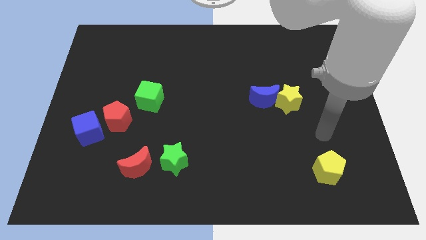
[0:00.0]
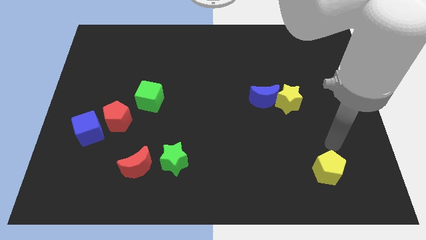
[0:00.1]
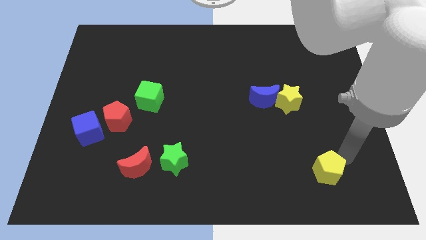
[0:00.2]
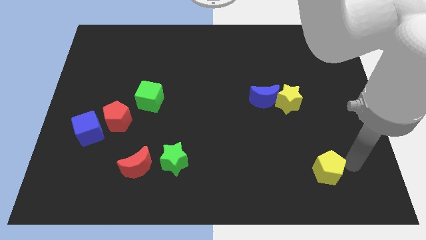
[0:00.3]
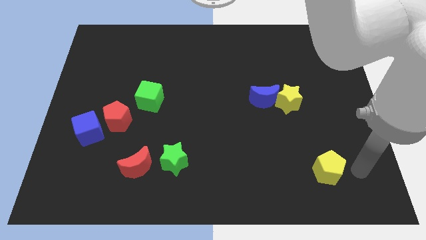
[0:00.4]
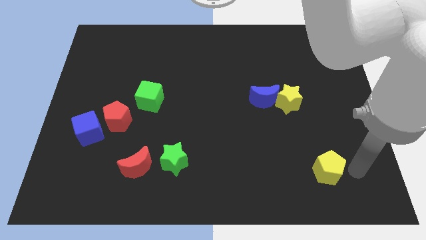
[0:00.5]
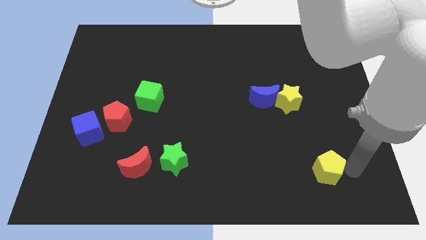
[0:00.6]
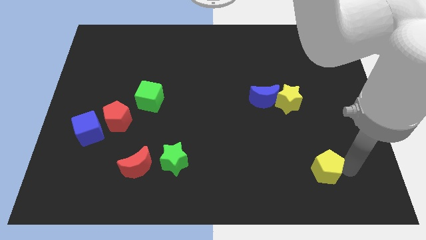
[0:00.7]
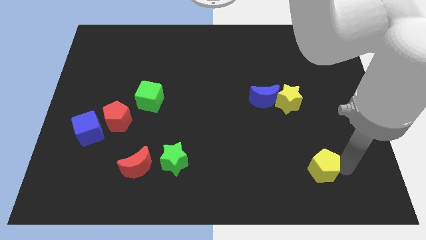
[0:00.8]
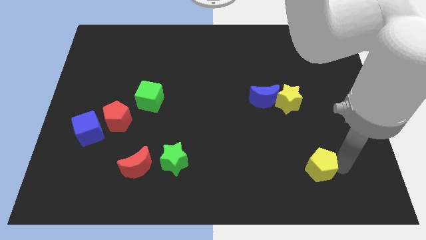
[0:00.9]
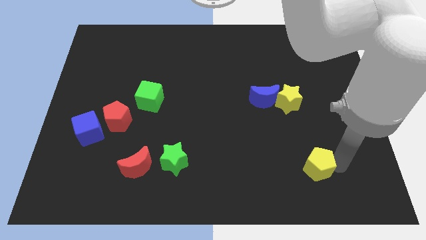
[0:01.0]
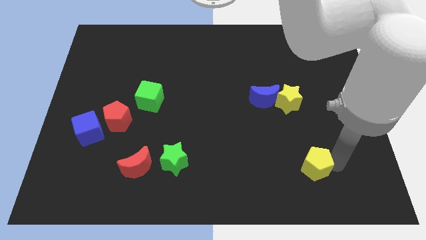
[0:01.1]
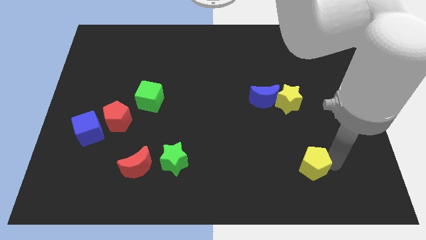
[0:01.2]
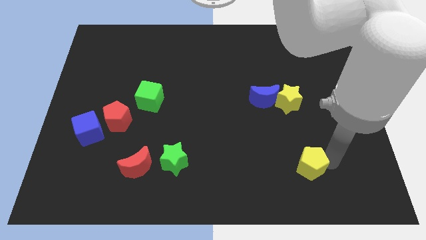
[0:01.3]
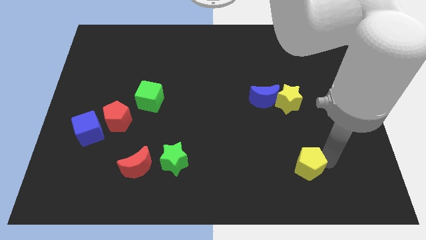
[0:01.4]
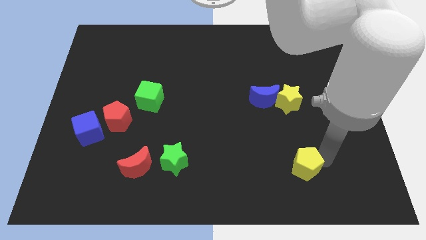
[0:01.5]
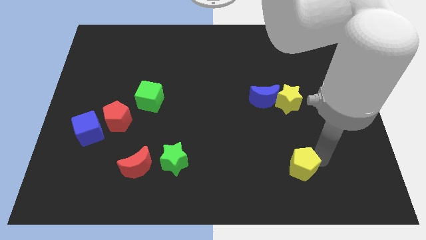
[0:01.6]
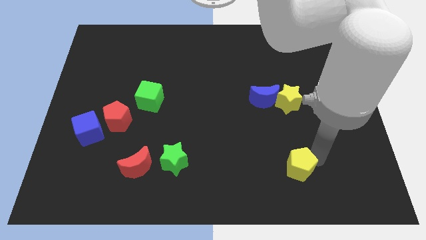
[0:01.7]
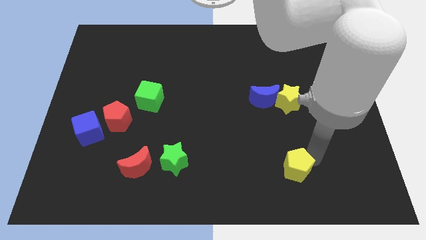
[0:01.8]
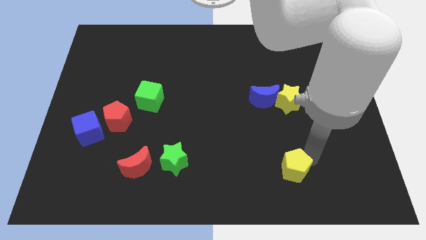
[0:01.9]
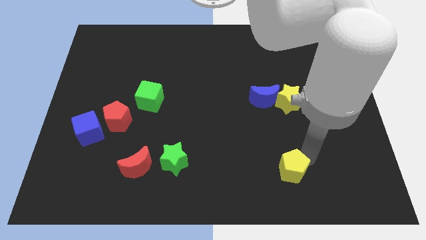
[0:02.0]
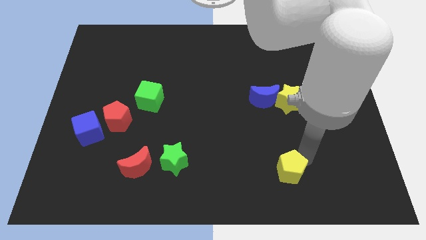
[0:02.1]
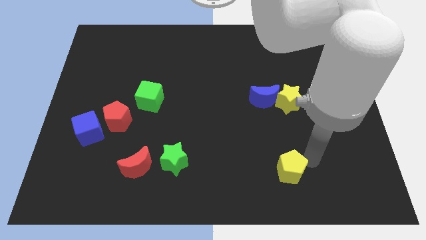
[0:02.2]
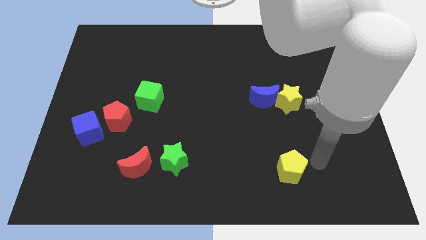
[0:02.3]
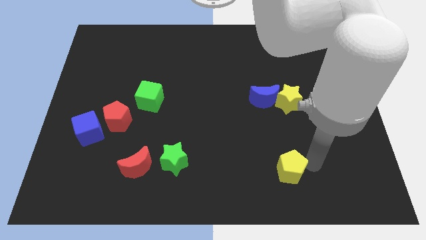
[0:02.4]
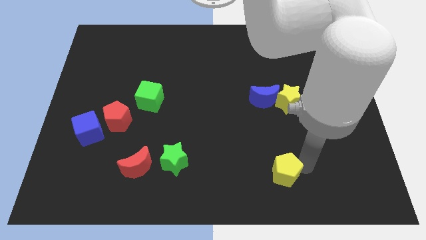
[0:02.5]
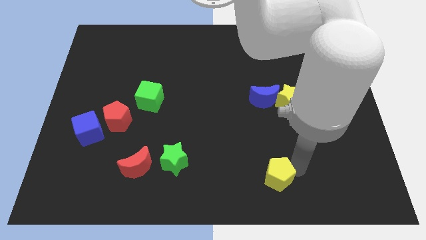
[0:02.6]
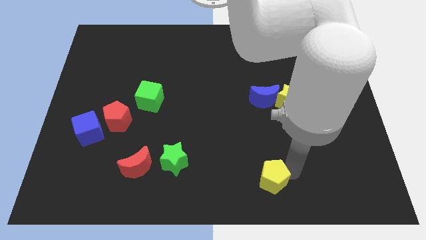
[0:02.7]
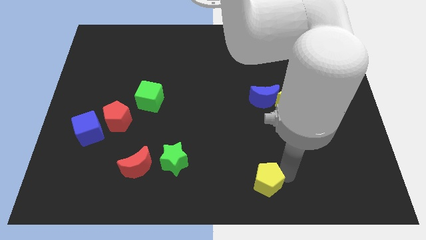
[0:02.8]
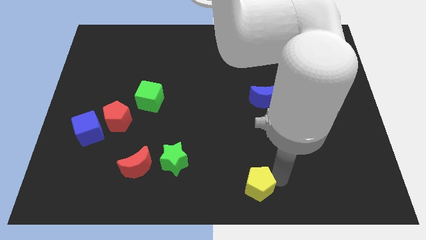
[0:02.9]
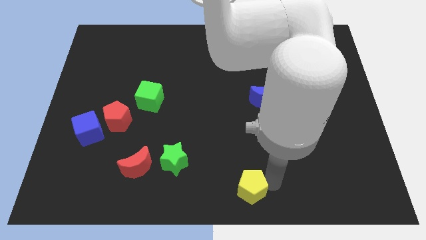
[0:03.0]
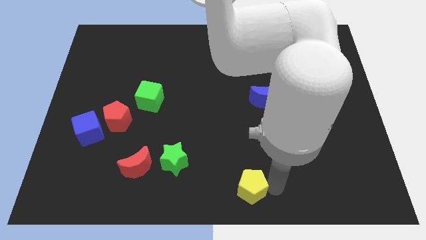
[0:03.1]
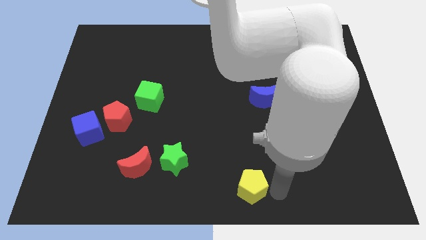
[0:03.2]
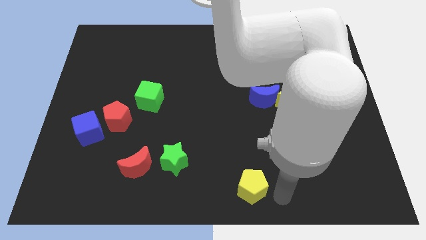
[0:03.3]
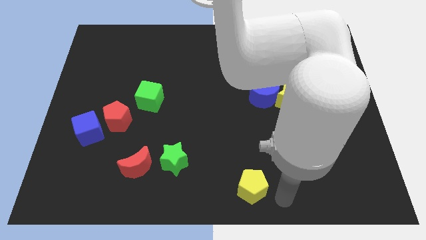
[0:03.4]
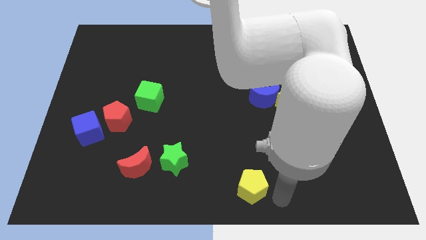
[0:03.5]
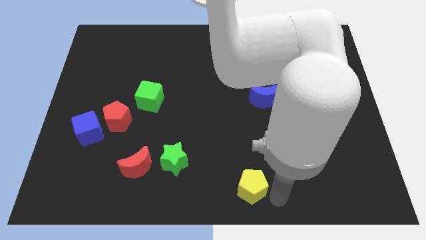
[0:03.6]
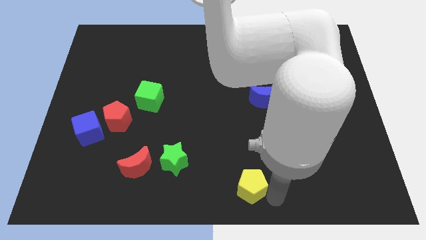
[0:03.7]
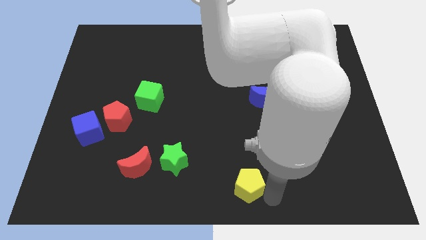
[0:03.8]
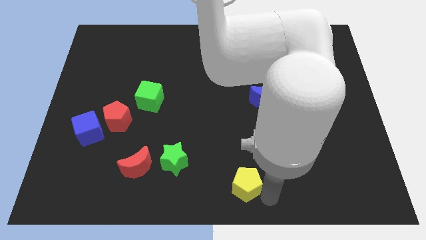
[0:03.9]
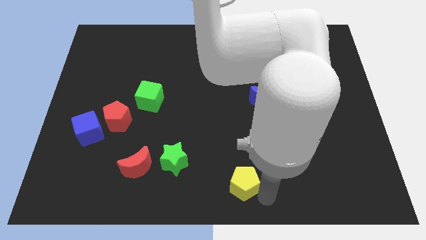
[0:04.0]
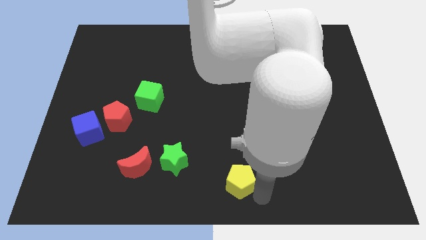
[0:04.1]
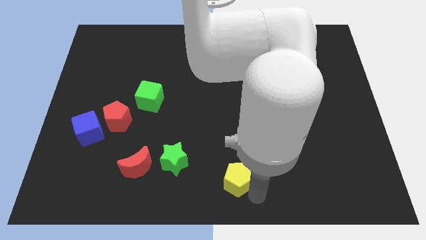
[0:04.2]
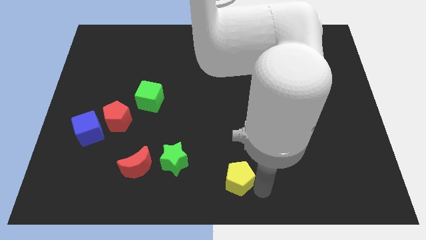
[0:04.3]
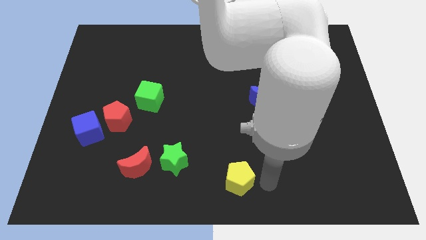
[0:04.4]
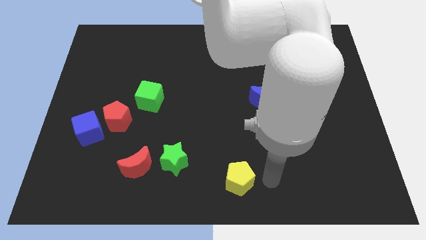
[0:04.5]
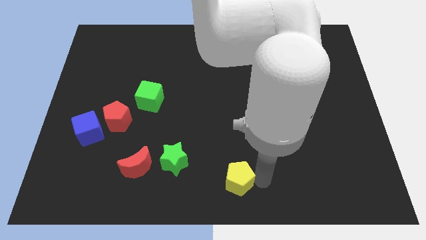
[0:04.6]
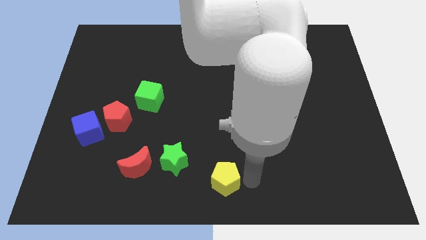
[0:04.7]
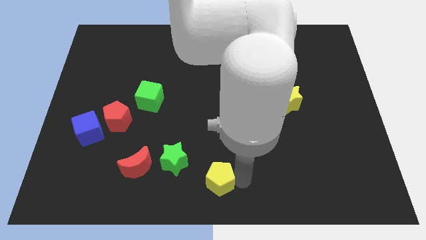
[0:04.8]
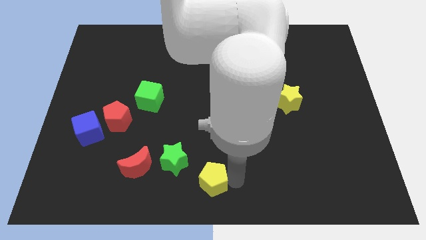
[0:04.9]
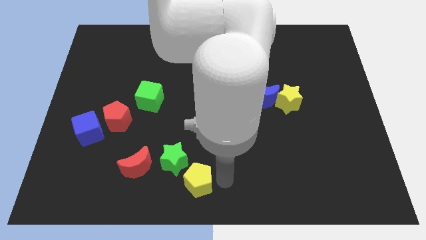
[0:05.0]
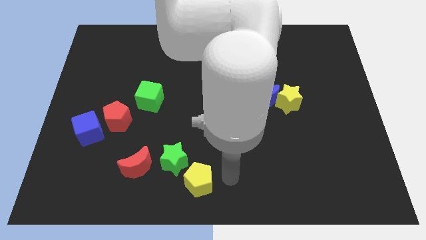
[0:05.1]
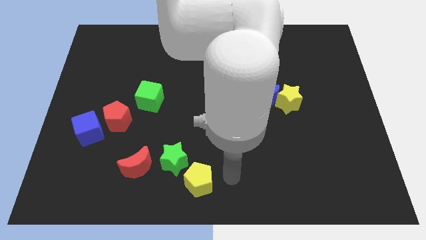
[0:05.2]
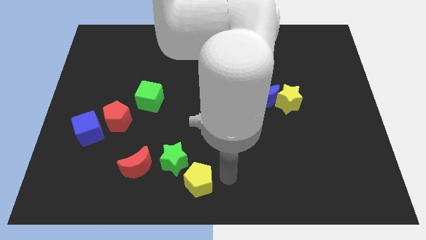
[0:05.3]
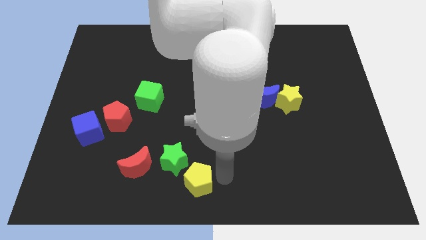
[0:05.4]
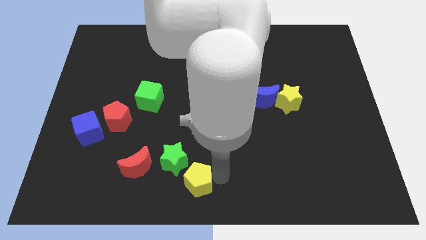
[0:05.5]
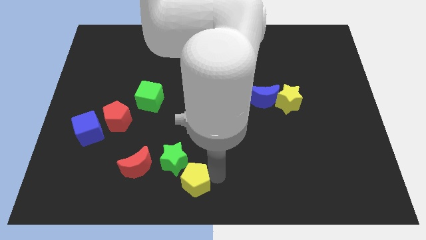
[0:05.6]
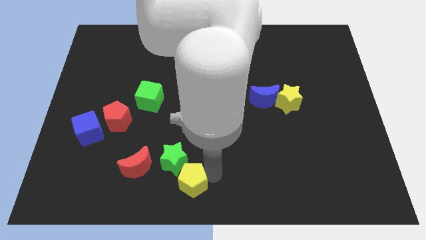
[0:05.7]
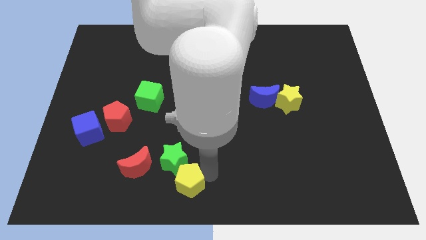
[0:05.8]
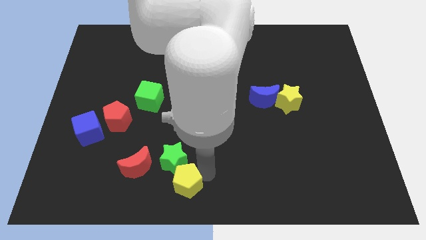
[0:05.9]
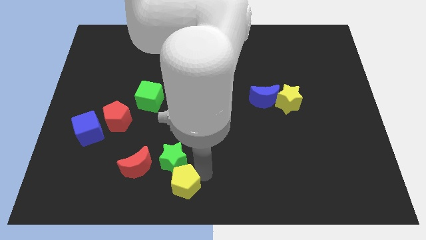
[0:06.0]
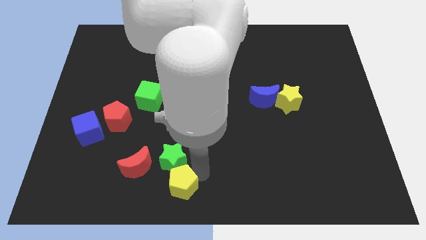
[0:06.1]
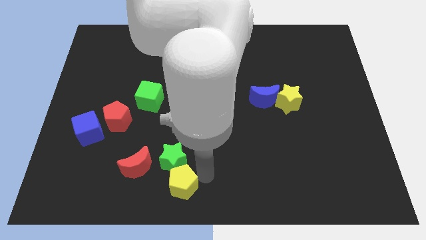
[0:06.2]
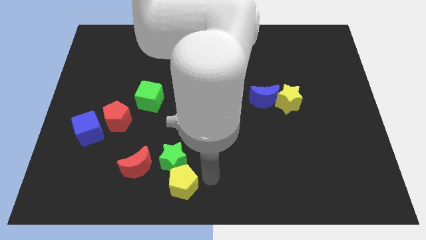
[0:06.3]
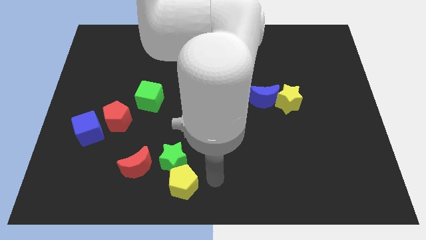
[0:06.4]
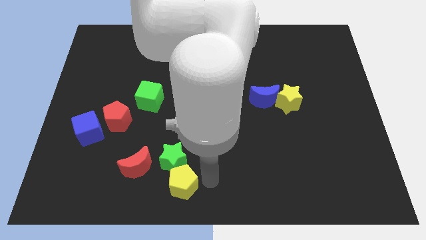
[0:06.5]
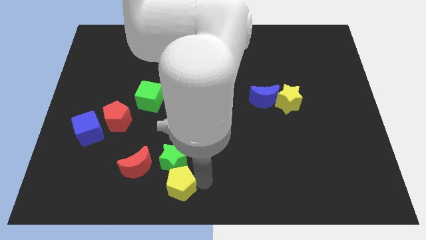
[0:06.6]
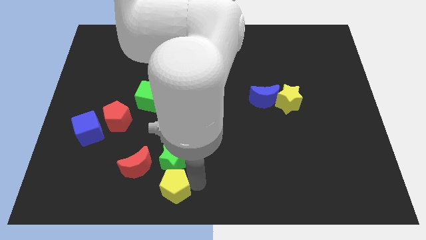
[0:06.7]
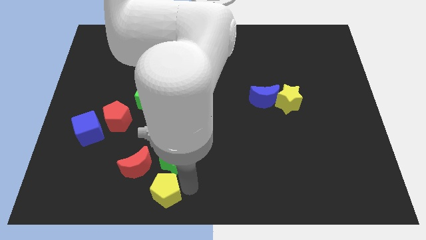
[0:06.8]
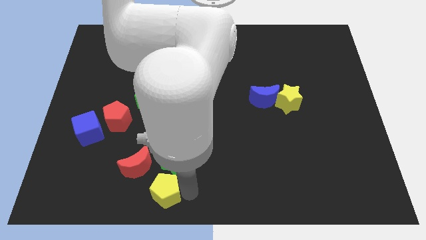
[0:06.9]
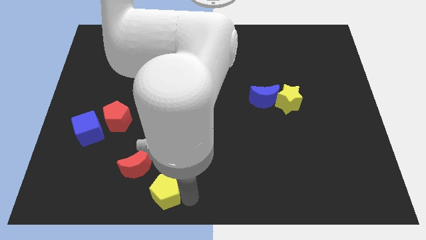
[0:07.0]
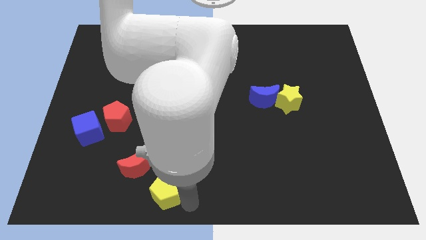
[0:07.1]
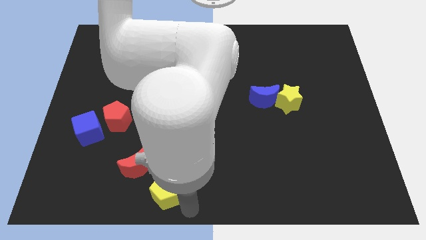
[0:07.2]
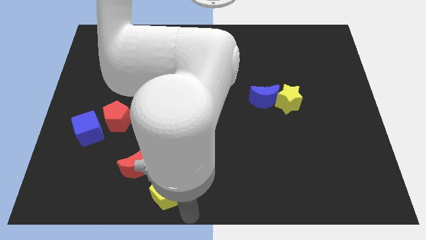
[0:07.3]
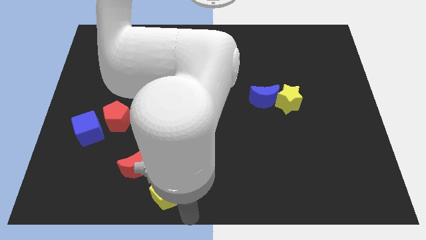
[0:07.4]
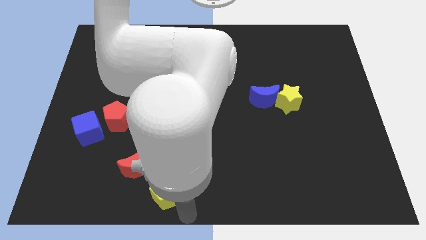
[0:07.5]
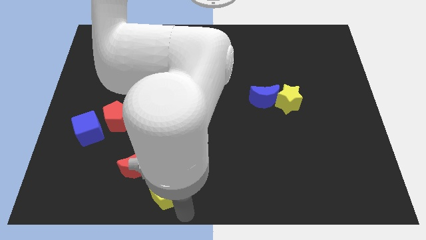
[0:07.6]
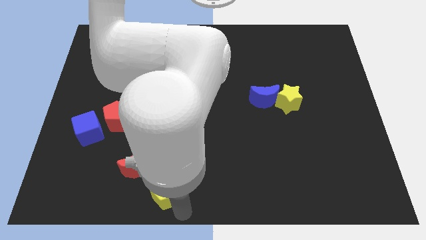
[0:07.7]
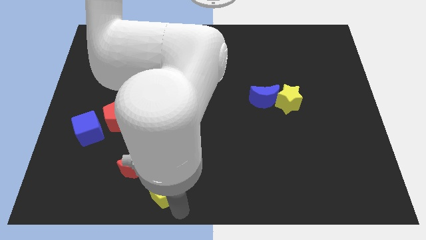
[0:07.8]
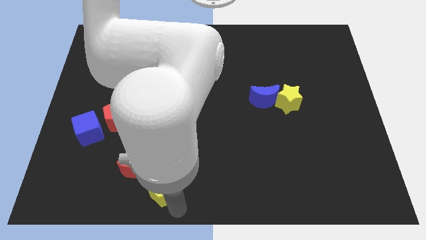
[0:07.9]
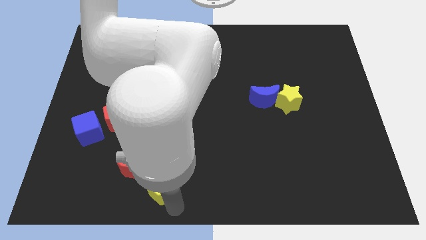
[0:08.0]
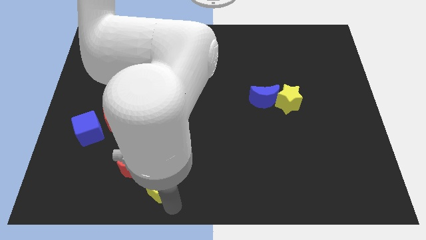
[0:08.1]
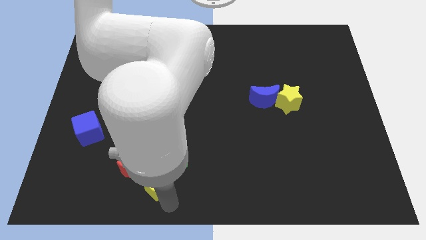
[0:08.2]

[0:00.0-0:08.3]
slide the yellow pentagon towards the red moon
